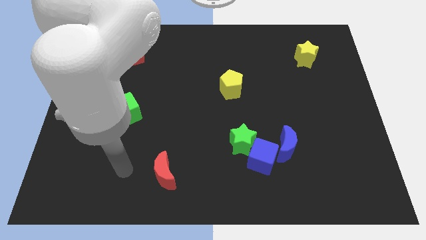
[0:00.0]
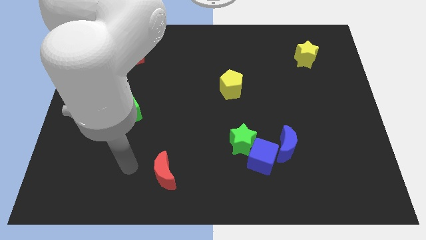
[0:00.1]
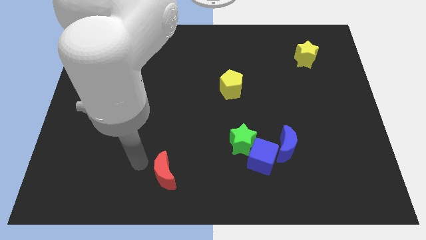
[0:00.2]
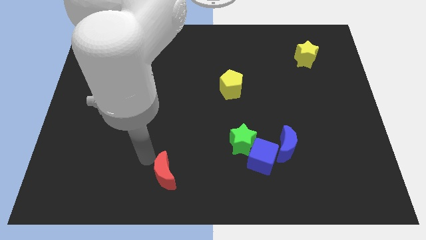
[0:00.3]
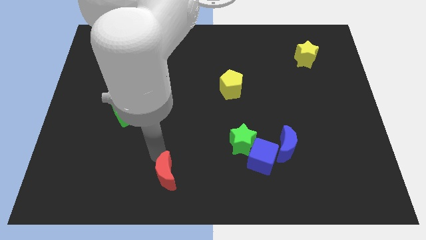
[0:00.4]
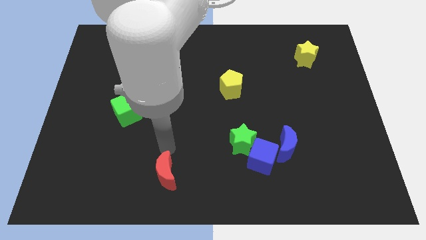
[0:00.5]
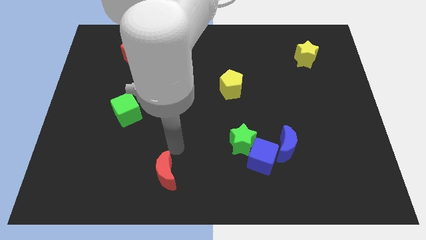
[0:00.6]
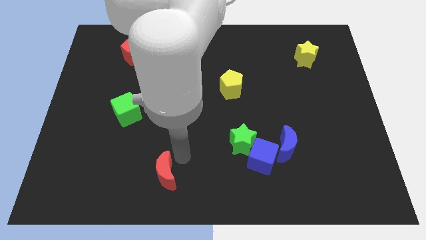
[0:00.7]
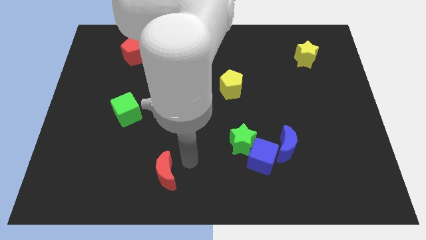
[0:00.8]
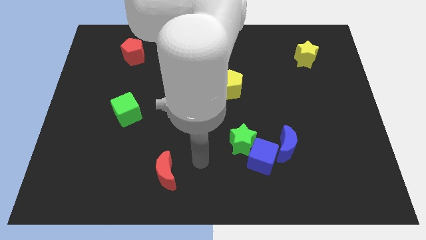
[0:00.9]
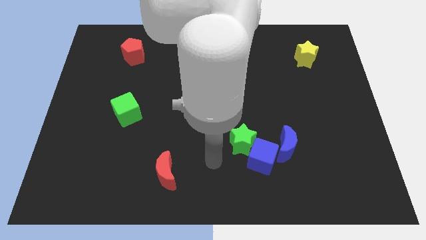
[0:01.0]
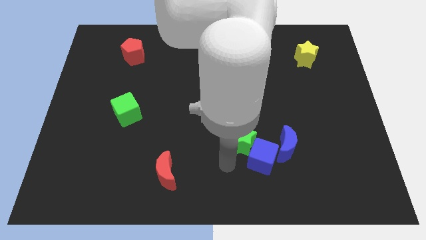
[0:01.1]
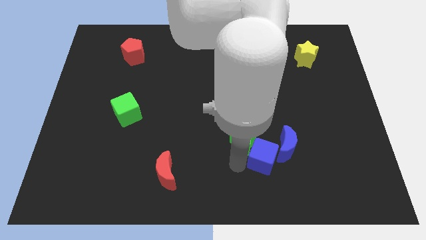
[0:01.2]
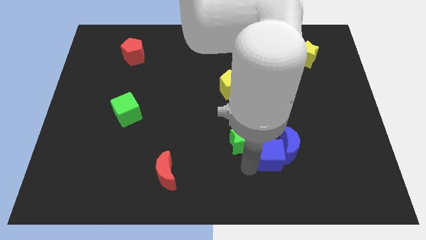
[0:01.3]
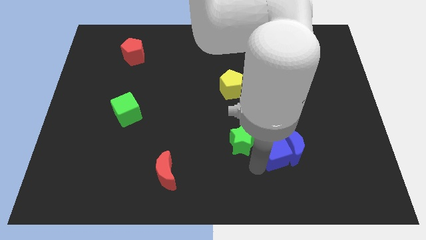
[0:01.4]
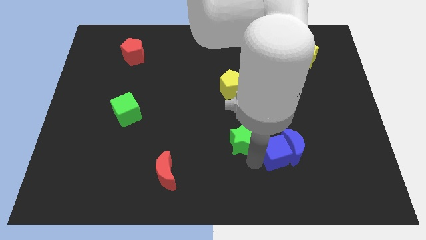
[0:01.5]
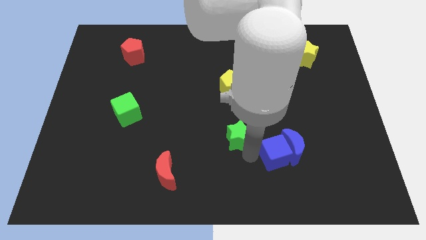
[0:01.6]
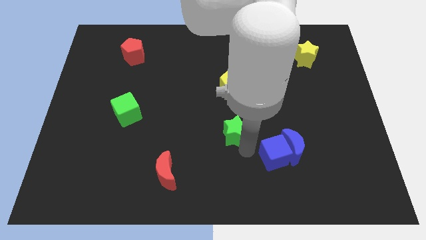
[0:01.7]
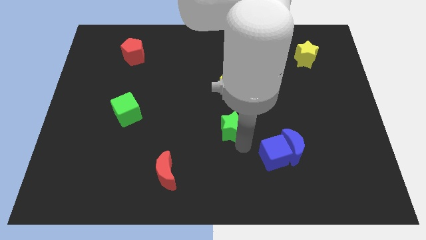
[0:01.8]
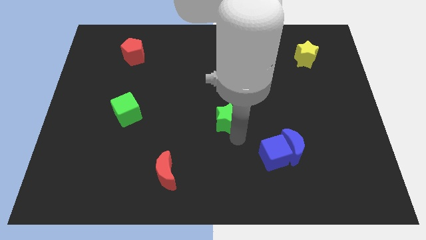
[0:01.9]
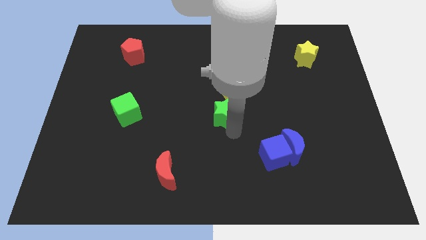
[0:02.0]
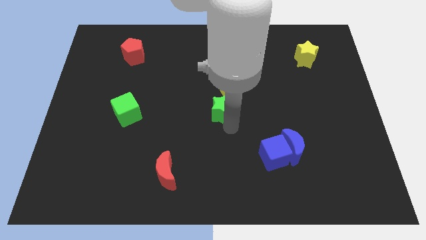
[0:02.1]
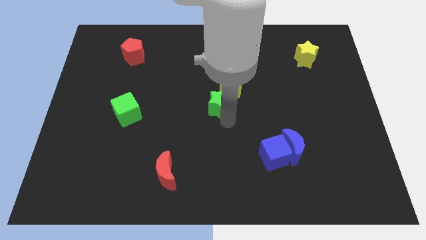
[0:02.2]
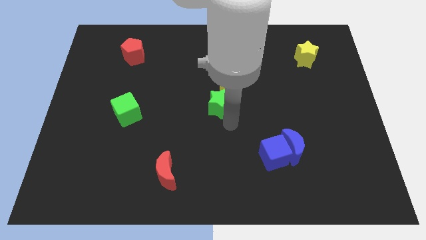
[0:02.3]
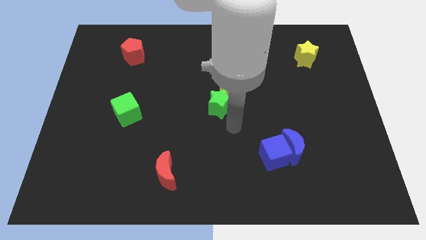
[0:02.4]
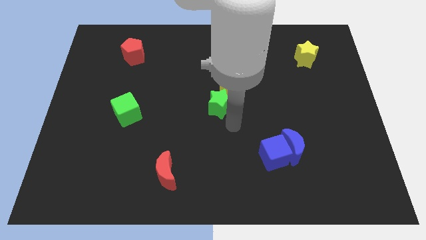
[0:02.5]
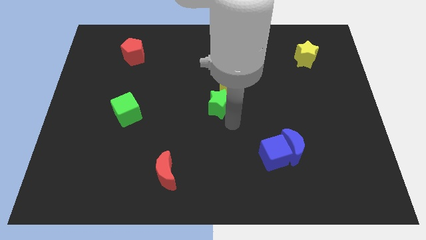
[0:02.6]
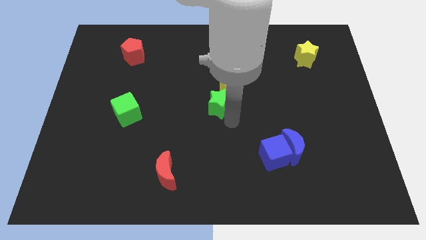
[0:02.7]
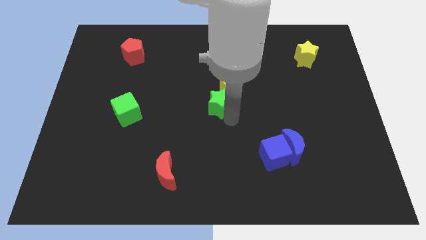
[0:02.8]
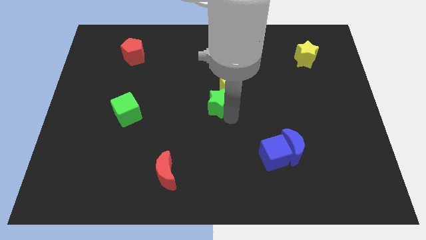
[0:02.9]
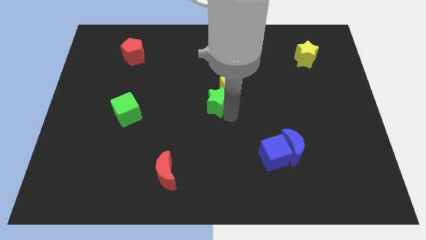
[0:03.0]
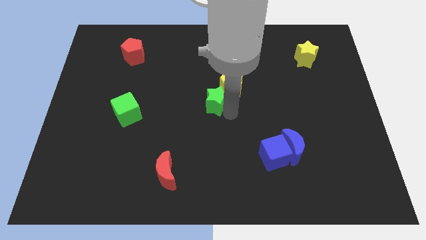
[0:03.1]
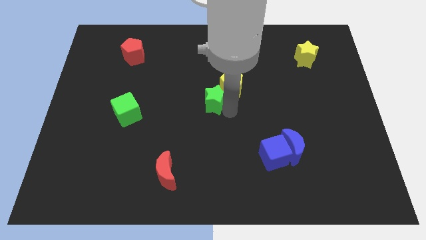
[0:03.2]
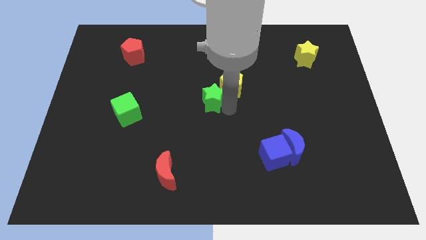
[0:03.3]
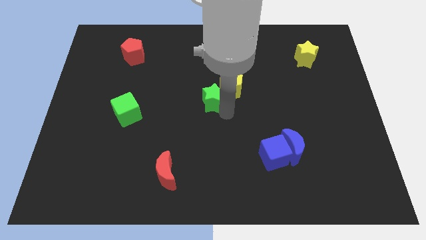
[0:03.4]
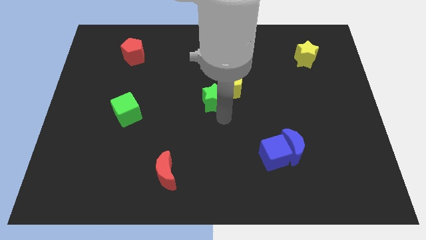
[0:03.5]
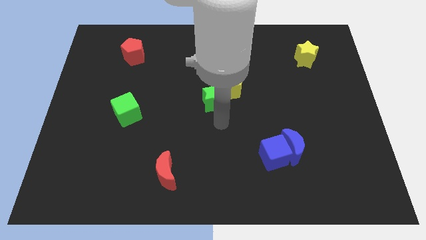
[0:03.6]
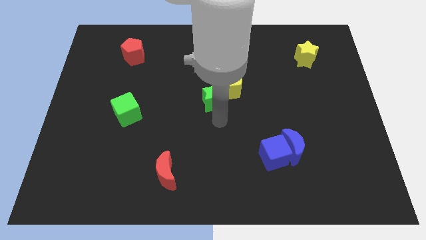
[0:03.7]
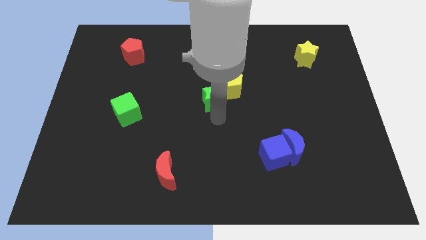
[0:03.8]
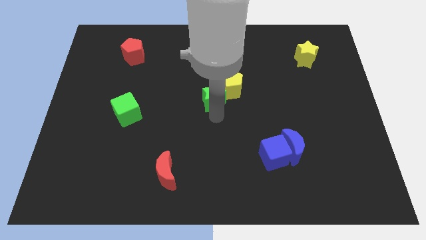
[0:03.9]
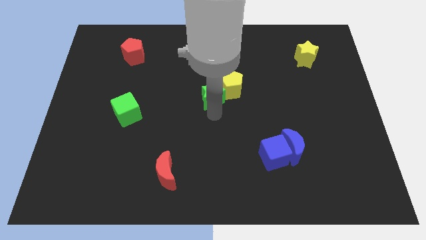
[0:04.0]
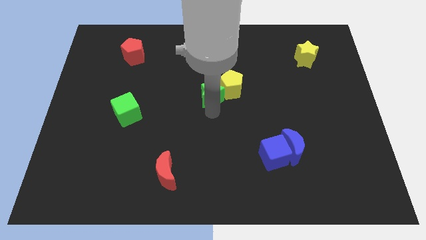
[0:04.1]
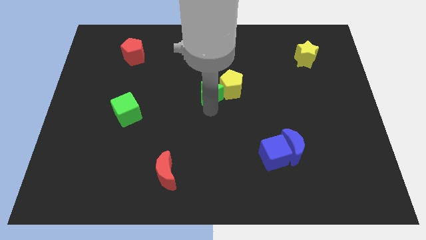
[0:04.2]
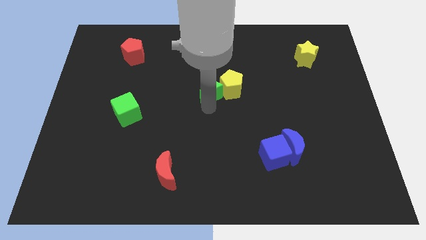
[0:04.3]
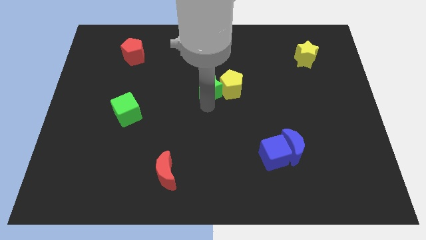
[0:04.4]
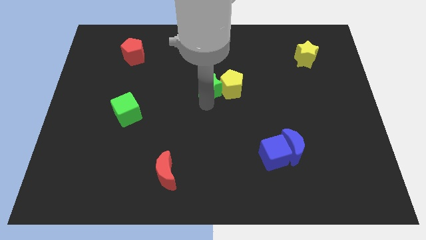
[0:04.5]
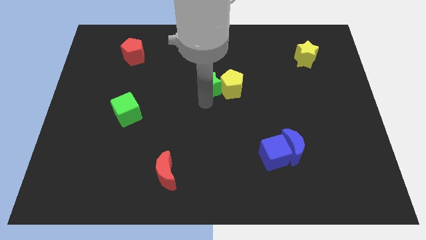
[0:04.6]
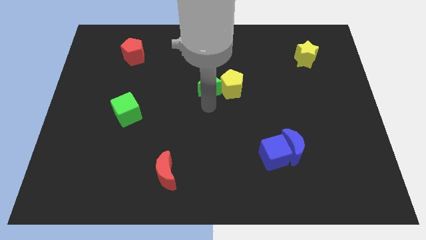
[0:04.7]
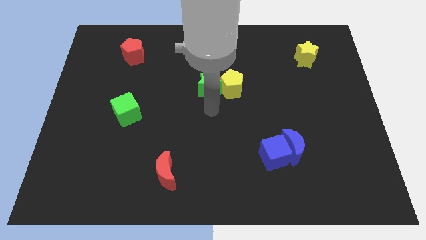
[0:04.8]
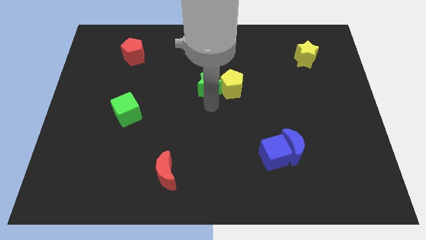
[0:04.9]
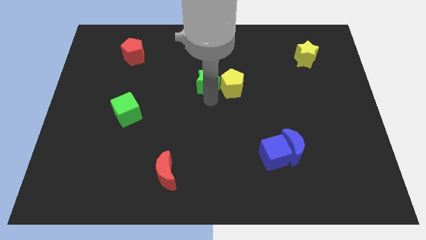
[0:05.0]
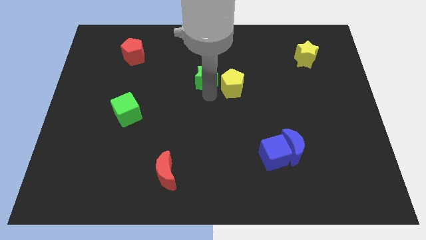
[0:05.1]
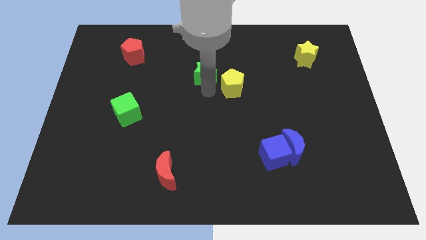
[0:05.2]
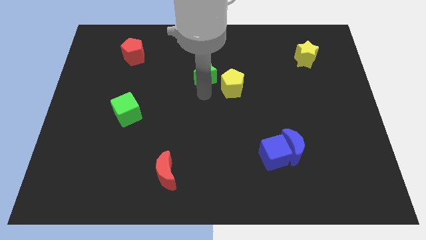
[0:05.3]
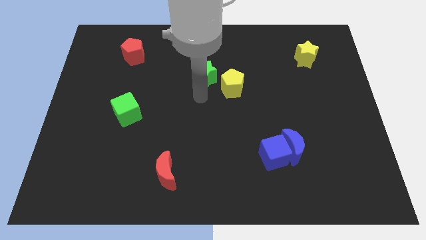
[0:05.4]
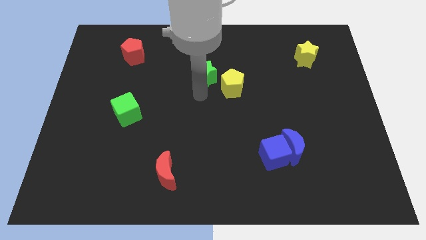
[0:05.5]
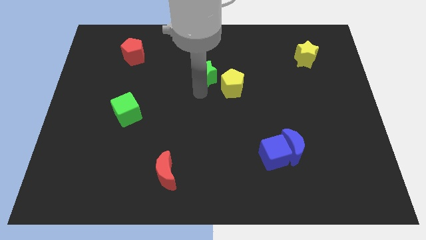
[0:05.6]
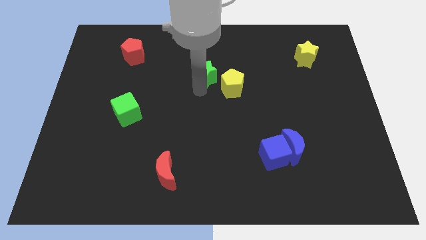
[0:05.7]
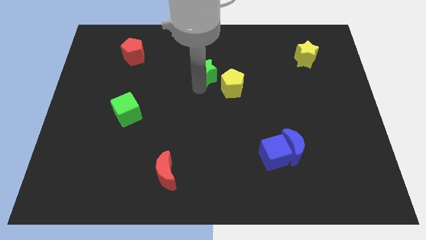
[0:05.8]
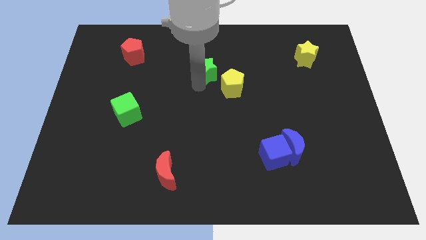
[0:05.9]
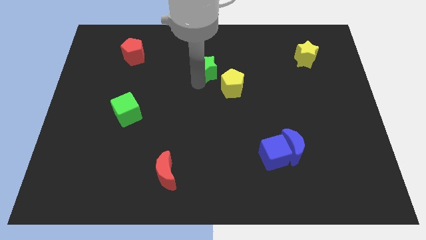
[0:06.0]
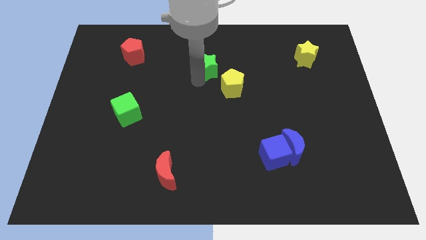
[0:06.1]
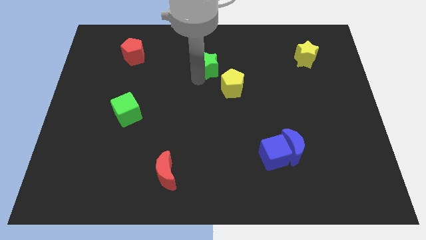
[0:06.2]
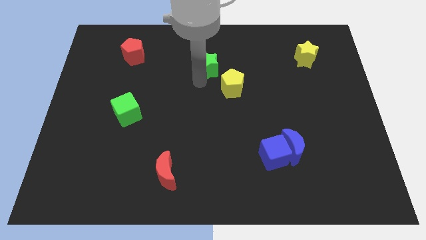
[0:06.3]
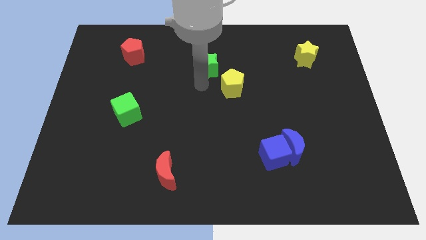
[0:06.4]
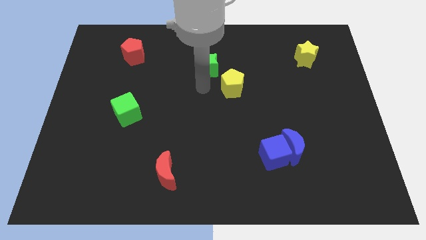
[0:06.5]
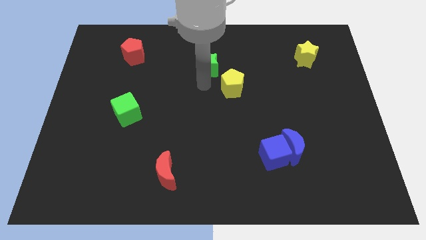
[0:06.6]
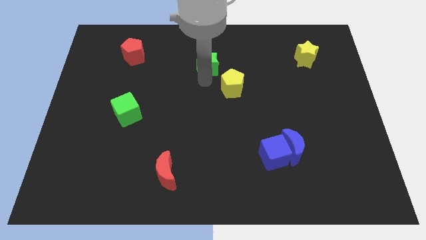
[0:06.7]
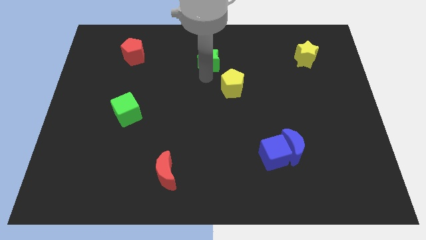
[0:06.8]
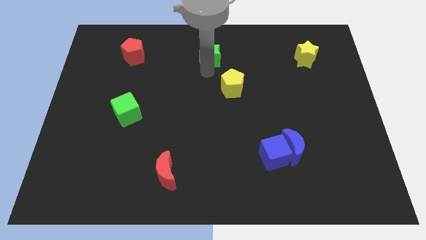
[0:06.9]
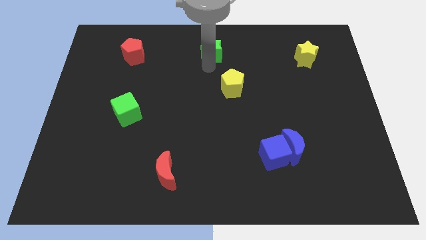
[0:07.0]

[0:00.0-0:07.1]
move the green star to the top side
